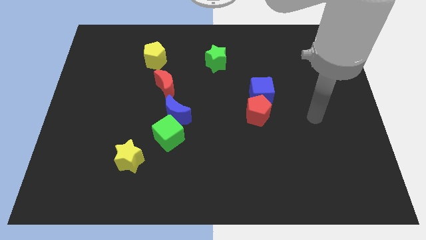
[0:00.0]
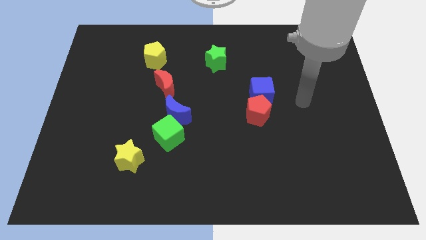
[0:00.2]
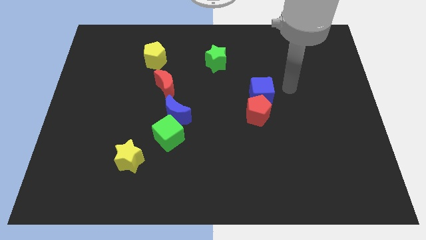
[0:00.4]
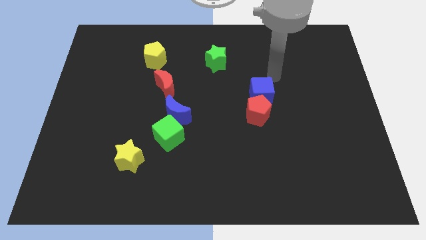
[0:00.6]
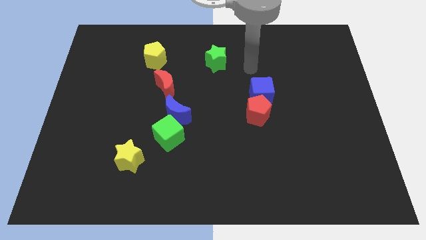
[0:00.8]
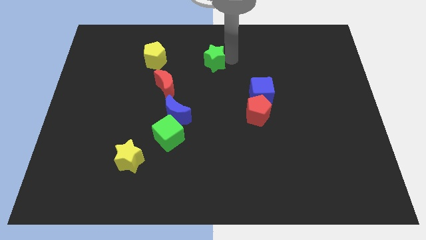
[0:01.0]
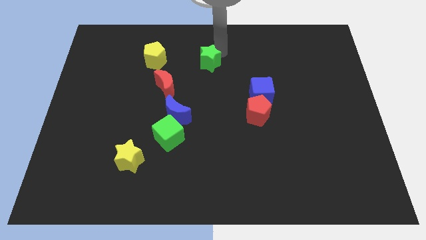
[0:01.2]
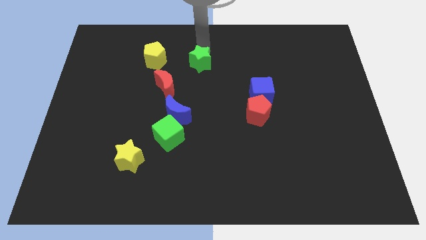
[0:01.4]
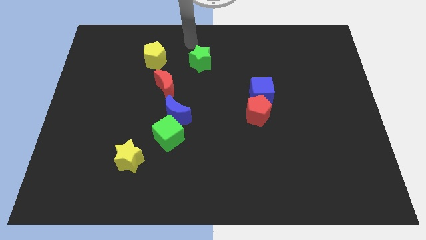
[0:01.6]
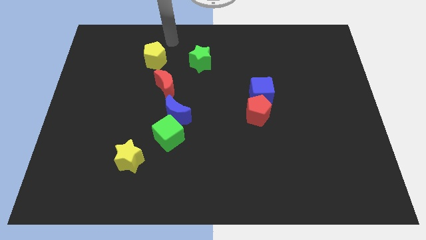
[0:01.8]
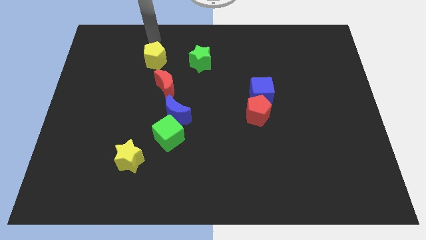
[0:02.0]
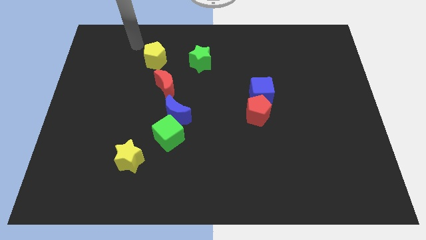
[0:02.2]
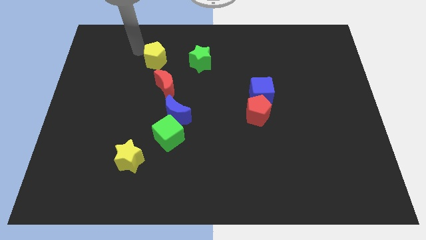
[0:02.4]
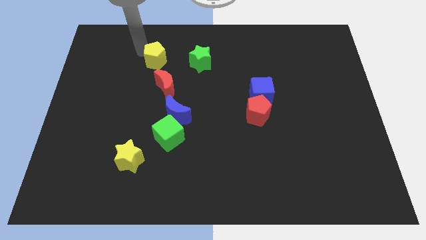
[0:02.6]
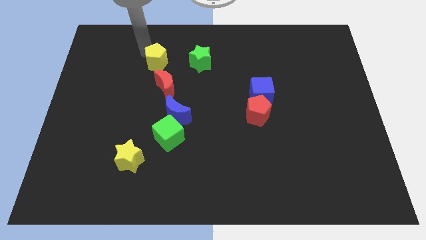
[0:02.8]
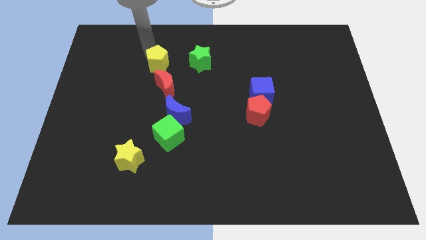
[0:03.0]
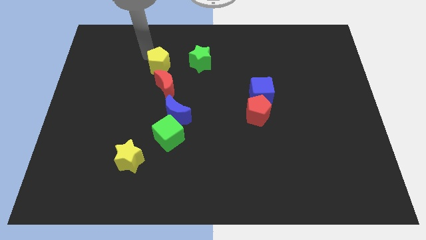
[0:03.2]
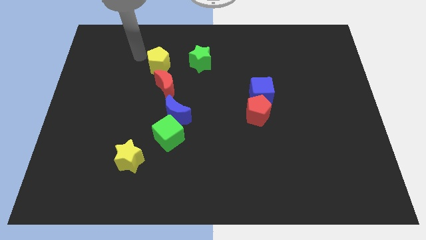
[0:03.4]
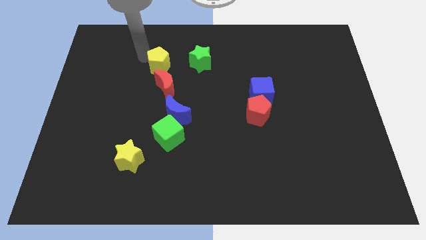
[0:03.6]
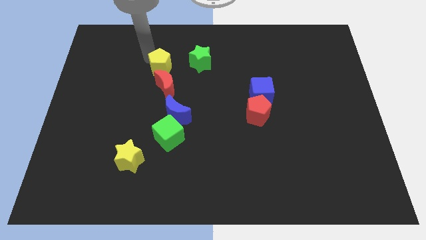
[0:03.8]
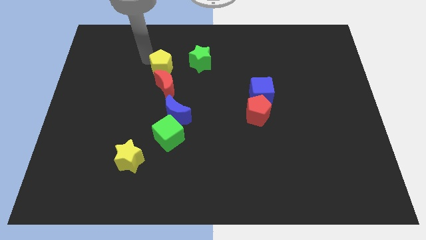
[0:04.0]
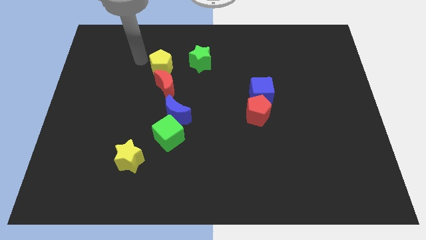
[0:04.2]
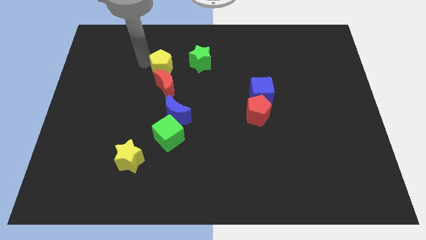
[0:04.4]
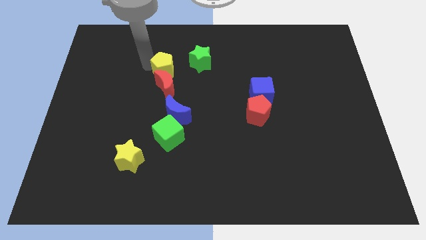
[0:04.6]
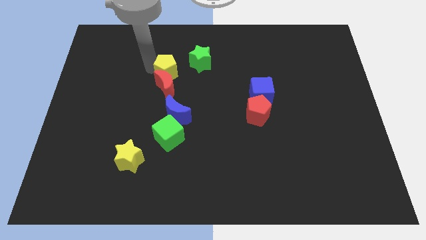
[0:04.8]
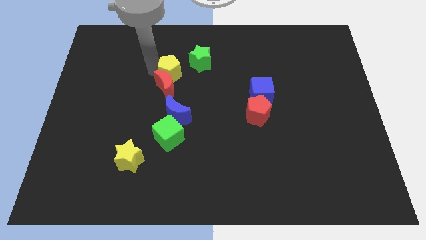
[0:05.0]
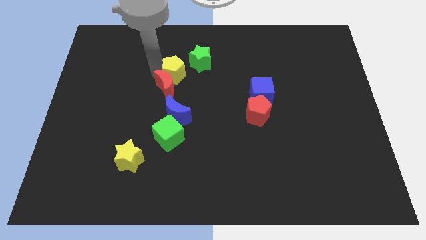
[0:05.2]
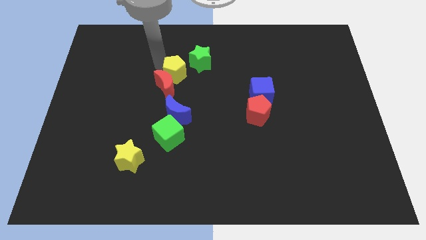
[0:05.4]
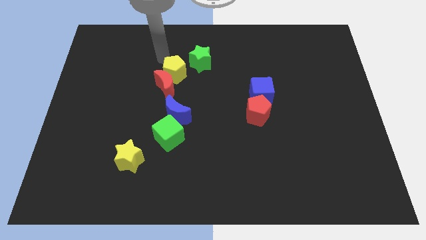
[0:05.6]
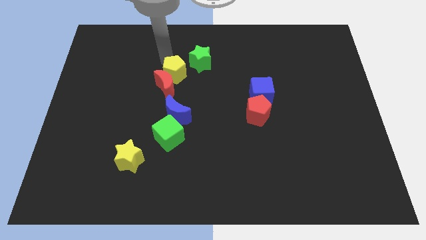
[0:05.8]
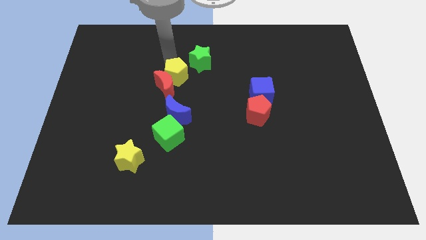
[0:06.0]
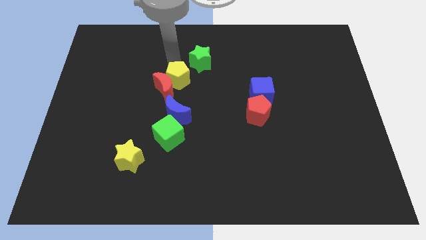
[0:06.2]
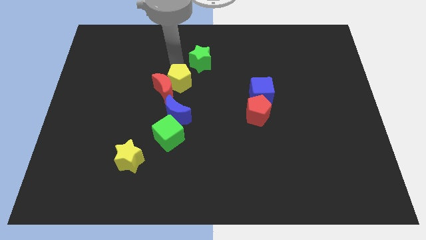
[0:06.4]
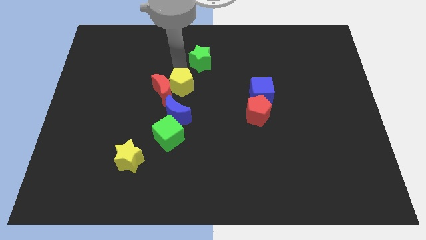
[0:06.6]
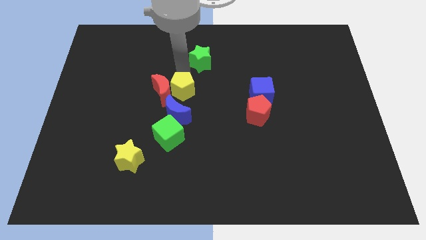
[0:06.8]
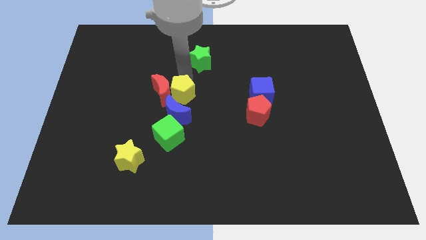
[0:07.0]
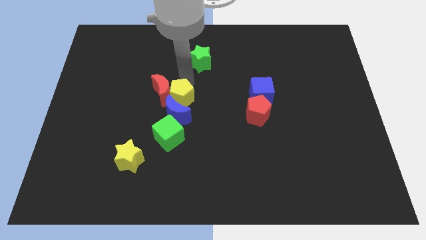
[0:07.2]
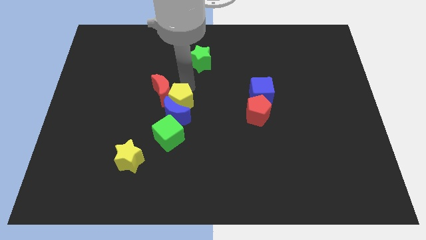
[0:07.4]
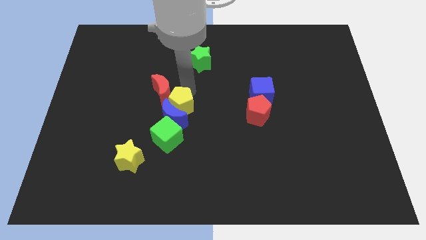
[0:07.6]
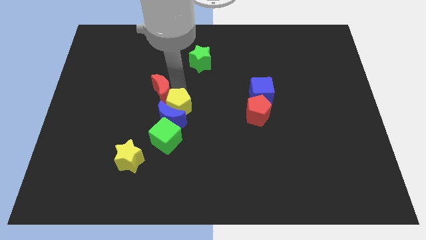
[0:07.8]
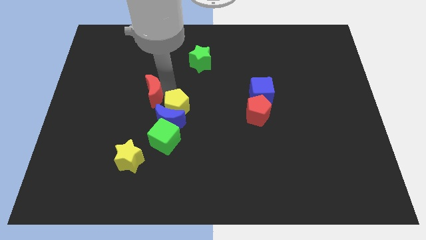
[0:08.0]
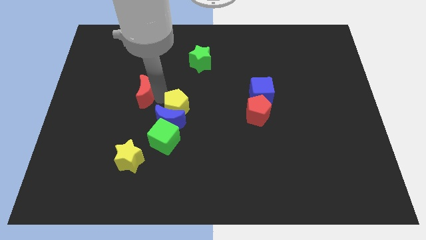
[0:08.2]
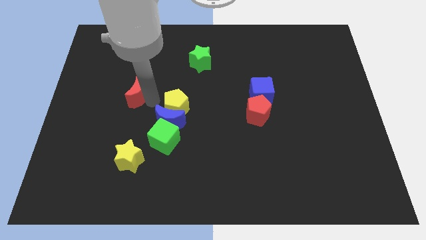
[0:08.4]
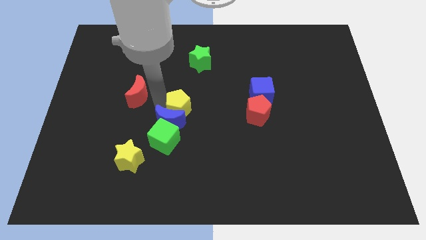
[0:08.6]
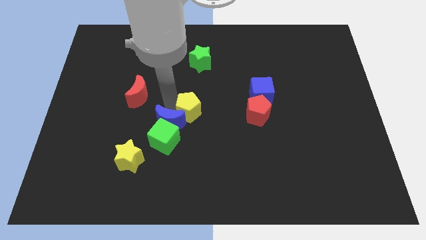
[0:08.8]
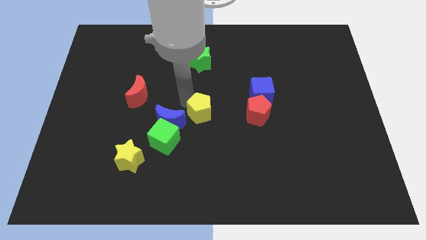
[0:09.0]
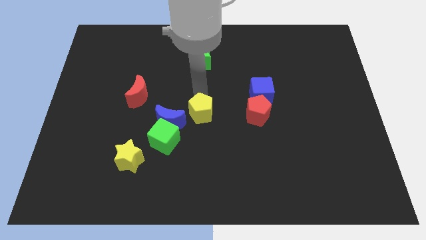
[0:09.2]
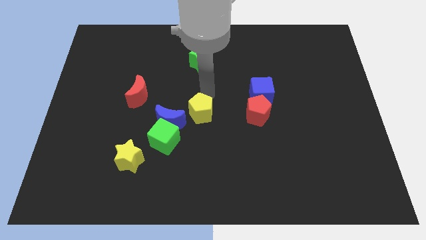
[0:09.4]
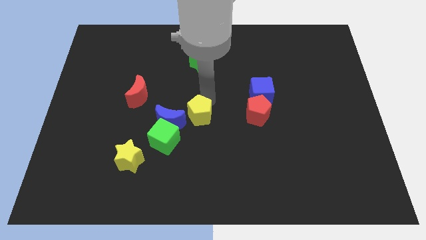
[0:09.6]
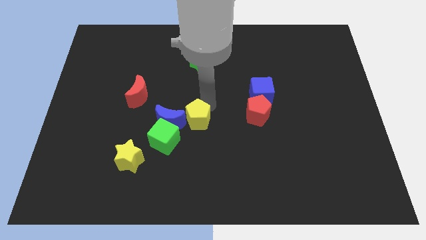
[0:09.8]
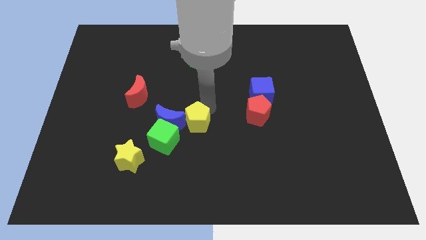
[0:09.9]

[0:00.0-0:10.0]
push the yellow pentagon to the bottom right side of the blue moon

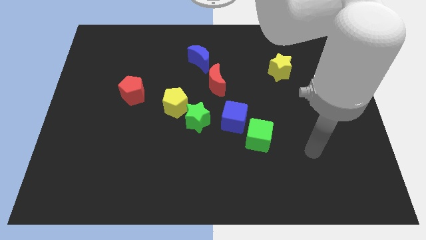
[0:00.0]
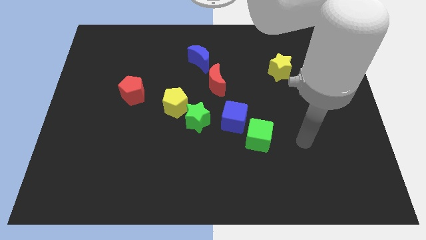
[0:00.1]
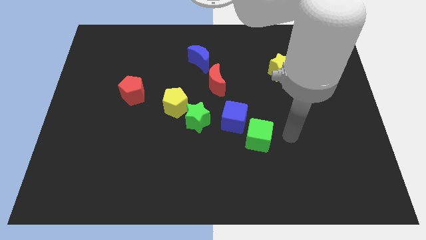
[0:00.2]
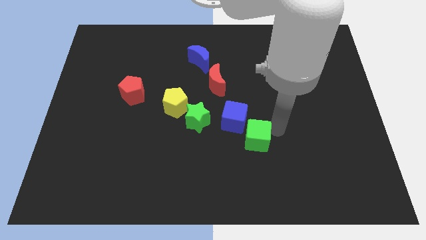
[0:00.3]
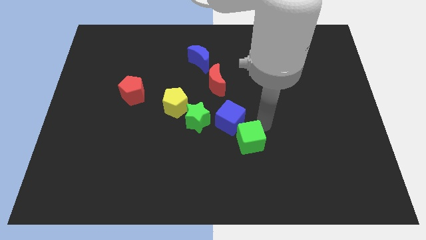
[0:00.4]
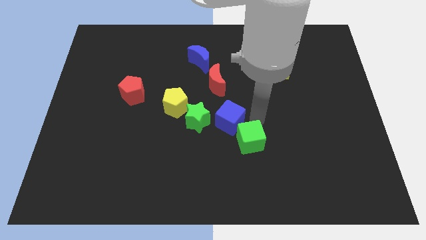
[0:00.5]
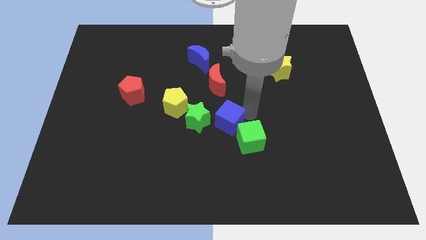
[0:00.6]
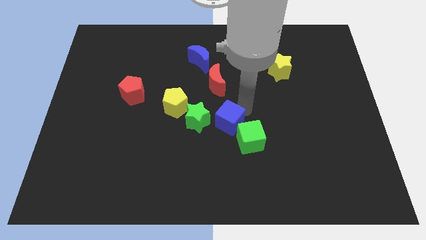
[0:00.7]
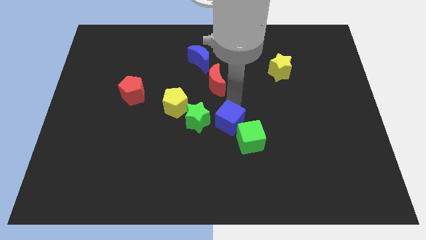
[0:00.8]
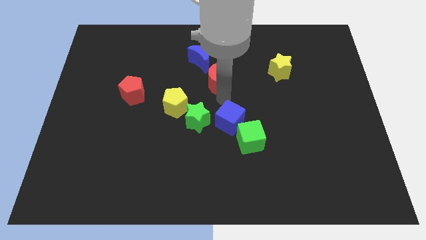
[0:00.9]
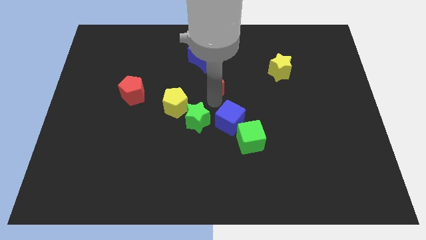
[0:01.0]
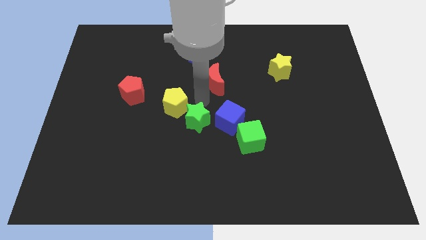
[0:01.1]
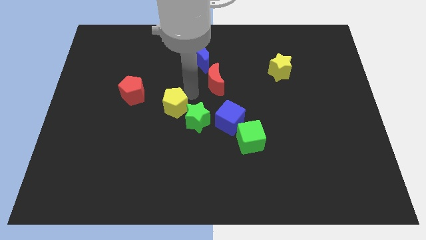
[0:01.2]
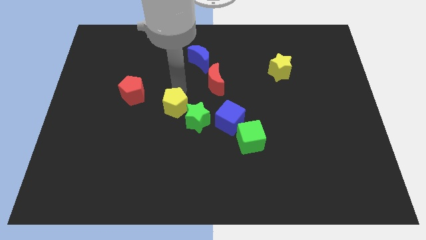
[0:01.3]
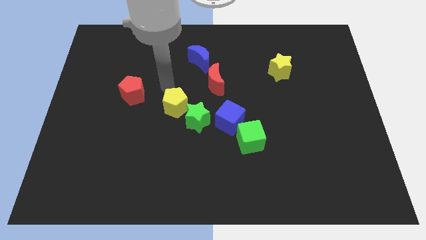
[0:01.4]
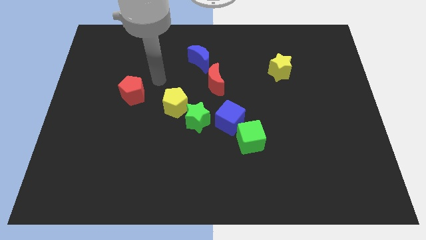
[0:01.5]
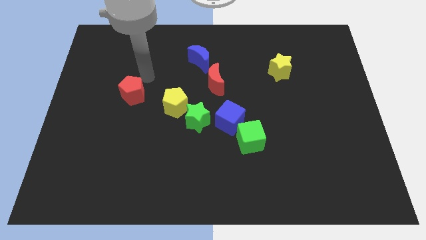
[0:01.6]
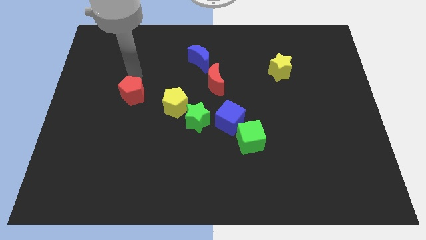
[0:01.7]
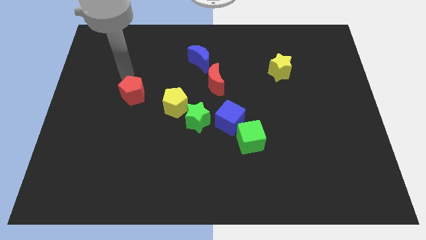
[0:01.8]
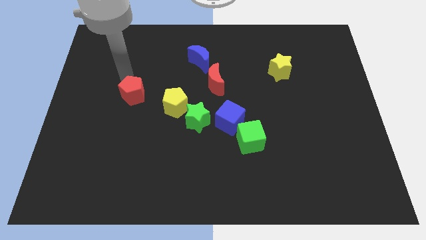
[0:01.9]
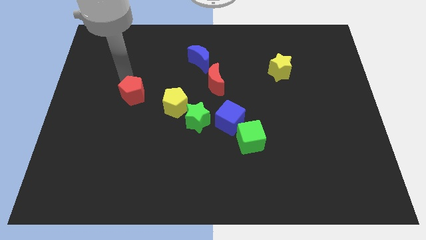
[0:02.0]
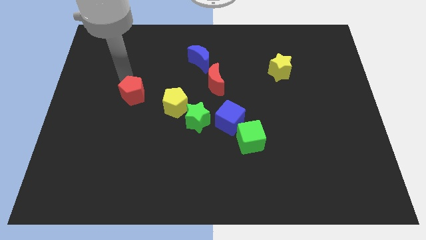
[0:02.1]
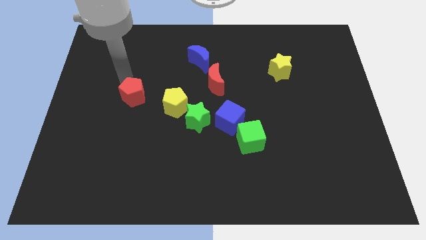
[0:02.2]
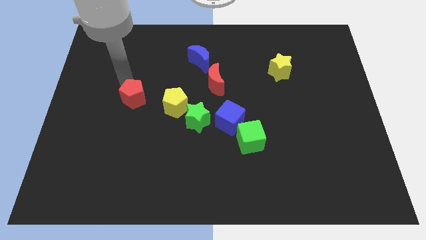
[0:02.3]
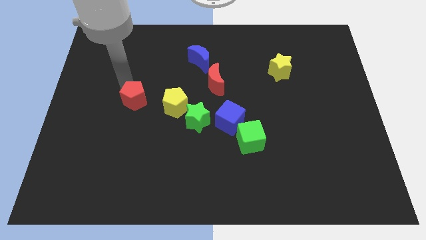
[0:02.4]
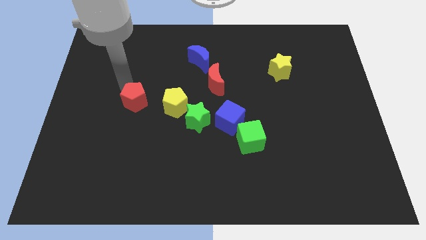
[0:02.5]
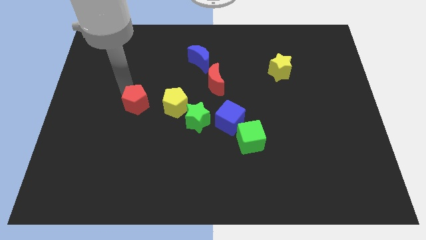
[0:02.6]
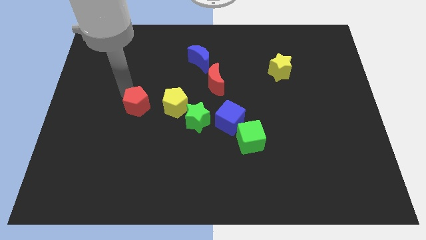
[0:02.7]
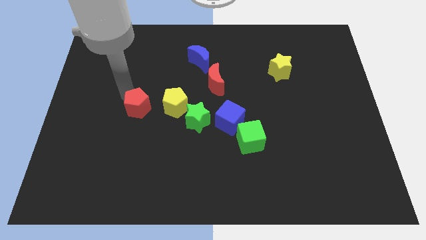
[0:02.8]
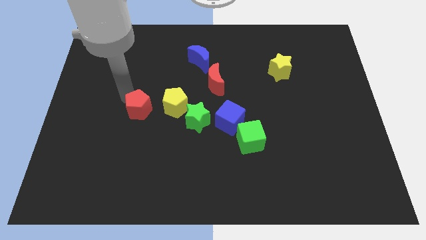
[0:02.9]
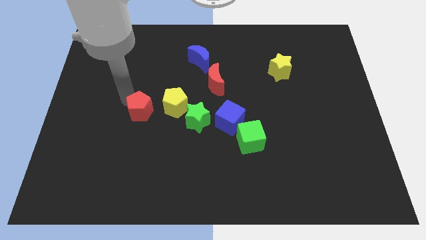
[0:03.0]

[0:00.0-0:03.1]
slide the red pentagon to the bottom left side of the yellow pentagon
